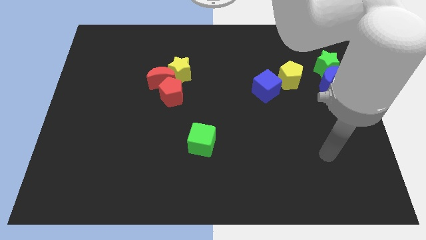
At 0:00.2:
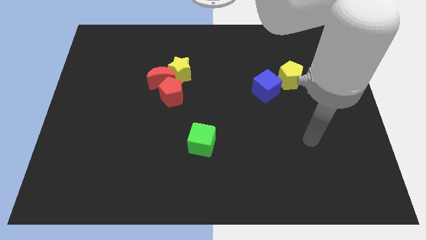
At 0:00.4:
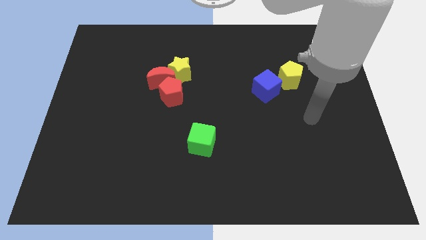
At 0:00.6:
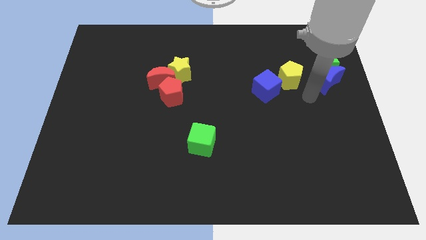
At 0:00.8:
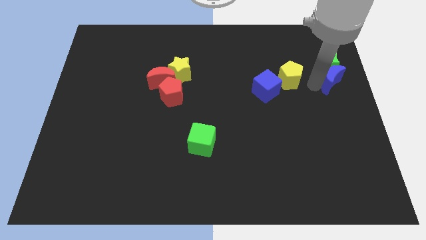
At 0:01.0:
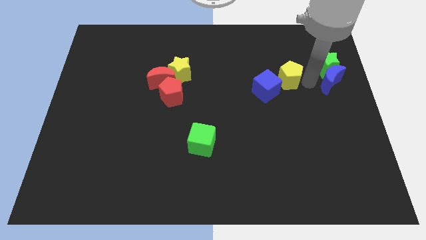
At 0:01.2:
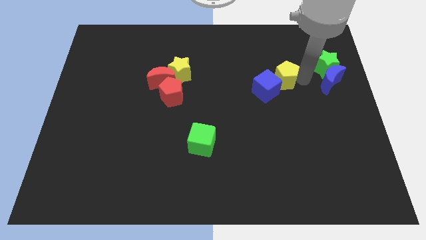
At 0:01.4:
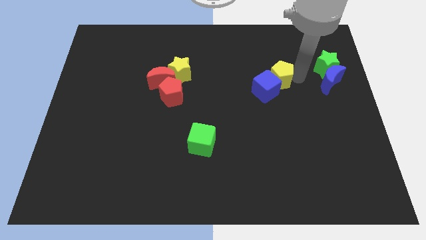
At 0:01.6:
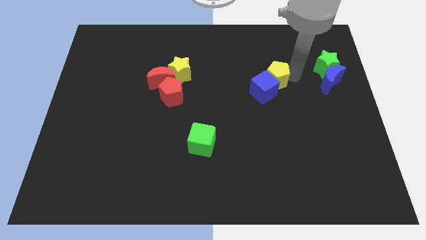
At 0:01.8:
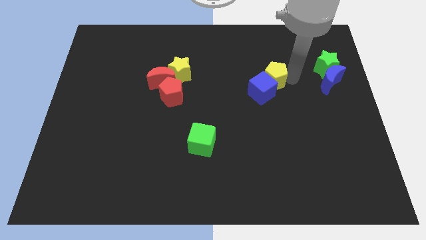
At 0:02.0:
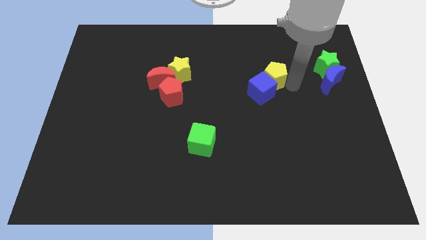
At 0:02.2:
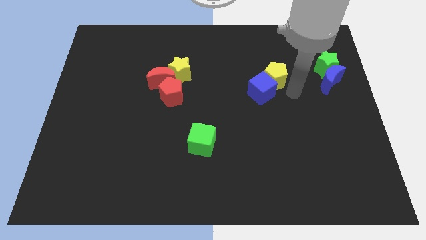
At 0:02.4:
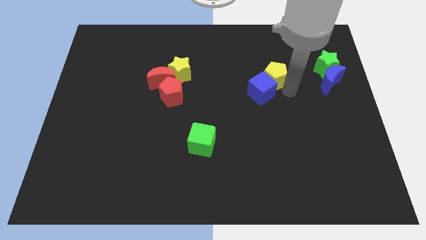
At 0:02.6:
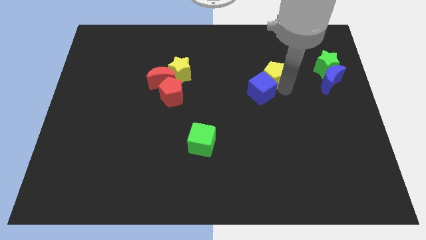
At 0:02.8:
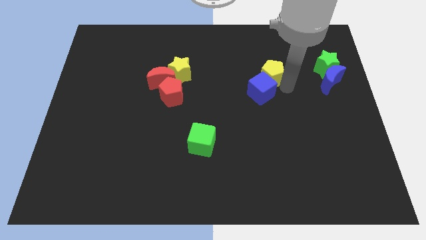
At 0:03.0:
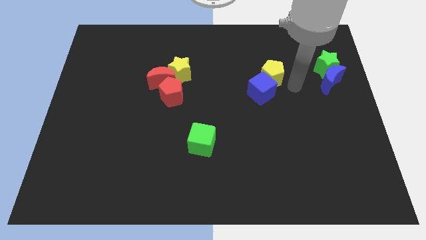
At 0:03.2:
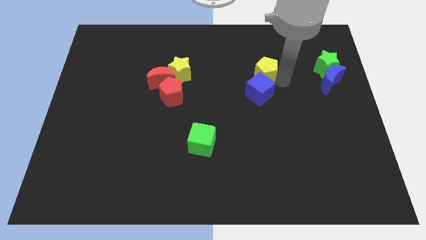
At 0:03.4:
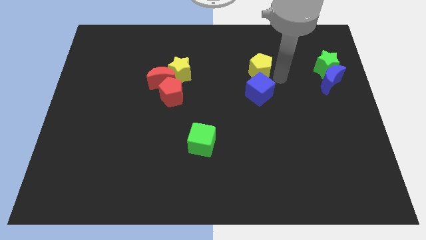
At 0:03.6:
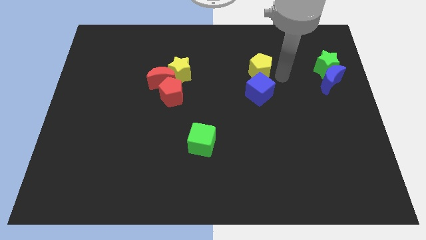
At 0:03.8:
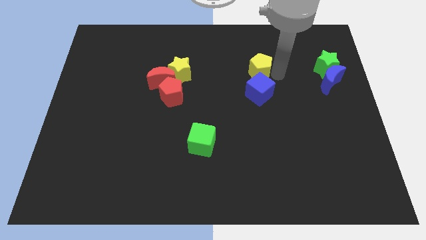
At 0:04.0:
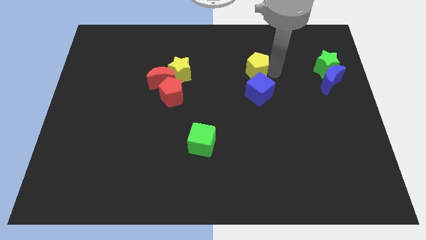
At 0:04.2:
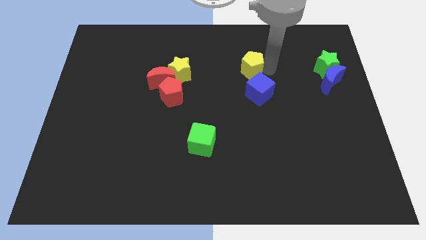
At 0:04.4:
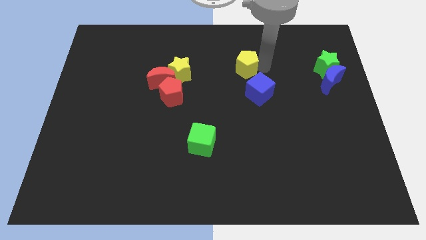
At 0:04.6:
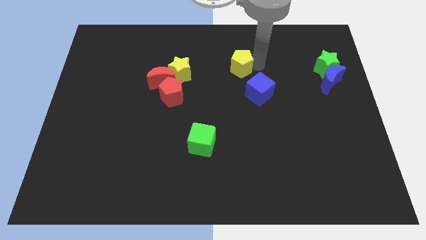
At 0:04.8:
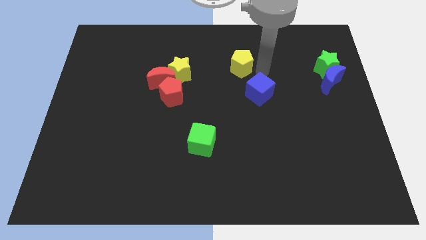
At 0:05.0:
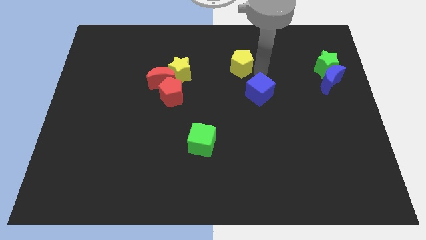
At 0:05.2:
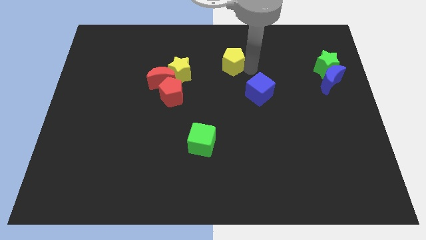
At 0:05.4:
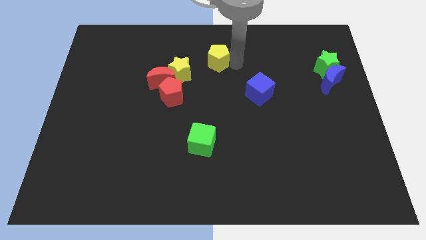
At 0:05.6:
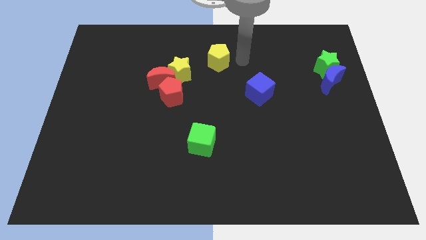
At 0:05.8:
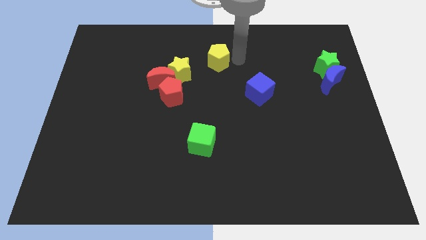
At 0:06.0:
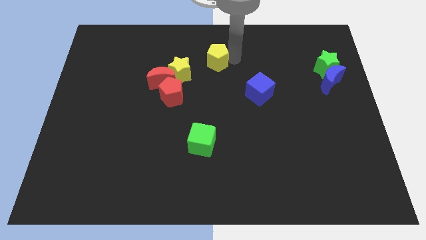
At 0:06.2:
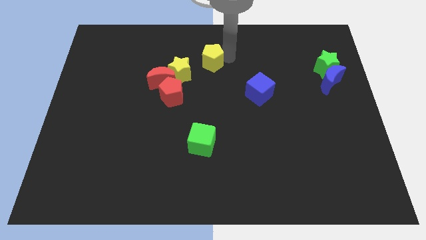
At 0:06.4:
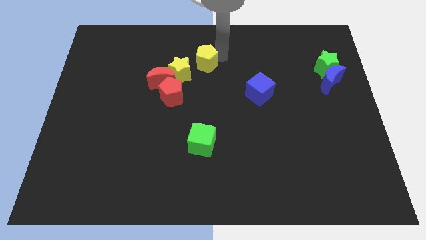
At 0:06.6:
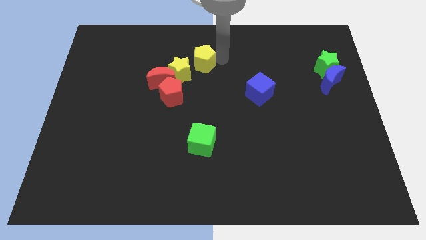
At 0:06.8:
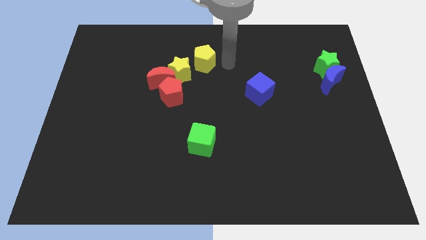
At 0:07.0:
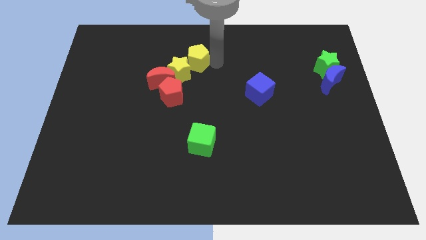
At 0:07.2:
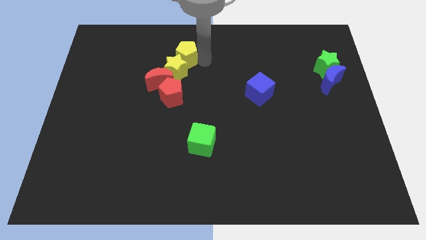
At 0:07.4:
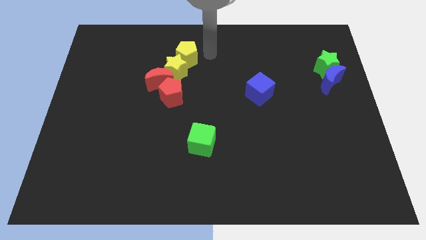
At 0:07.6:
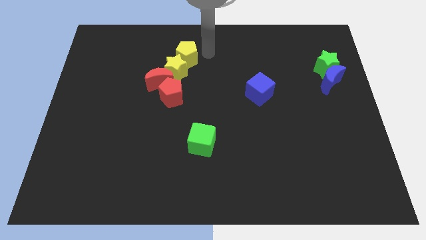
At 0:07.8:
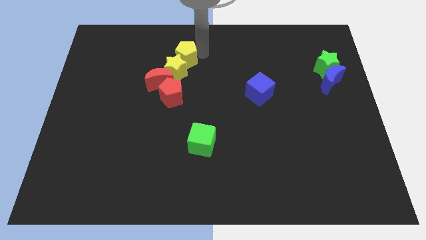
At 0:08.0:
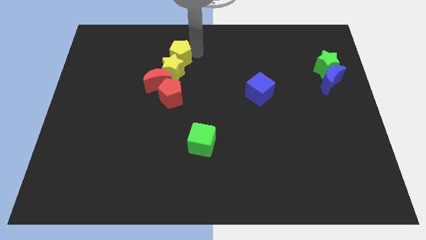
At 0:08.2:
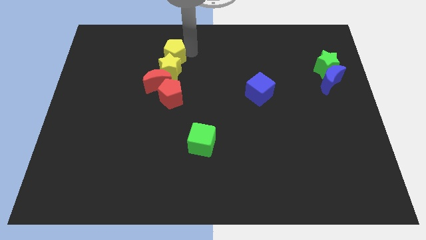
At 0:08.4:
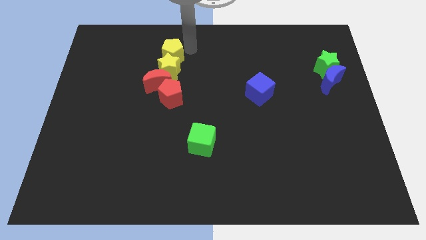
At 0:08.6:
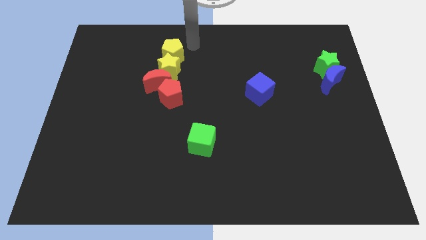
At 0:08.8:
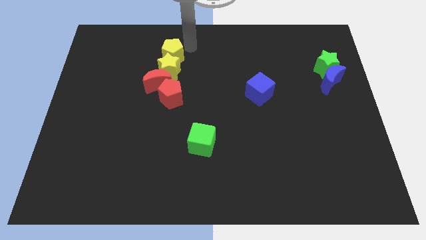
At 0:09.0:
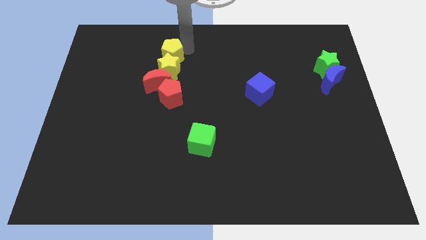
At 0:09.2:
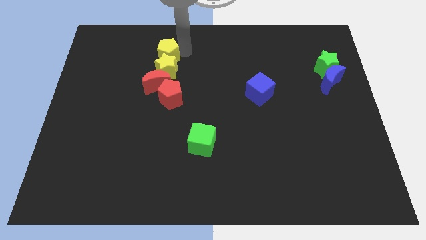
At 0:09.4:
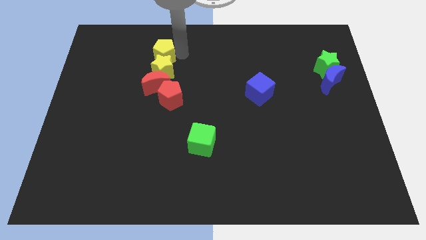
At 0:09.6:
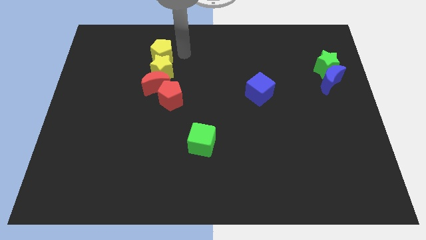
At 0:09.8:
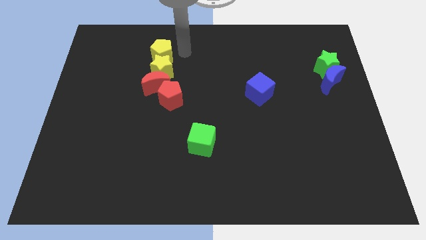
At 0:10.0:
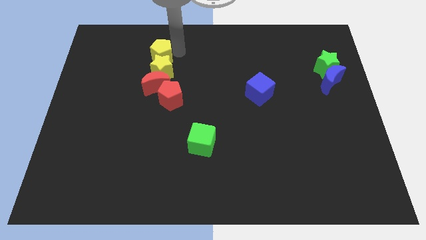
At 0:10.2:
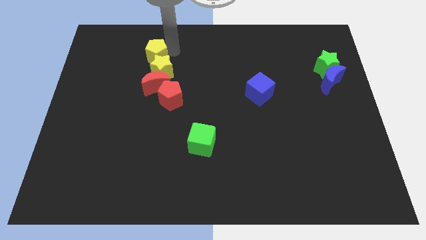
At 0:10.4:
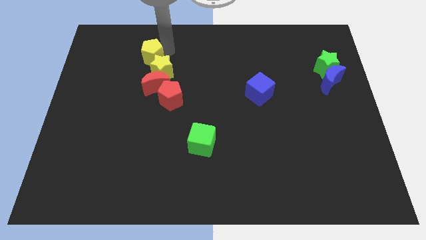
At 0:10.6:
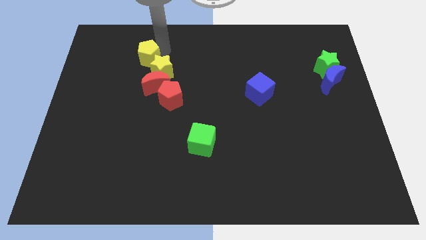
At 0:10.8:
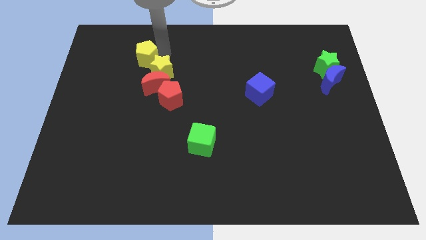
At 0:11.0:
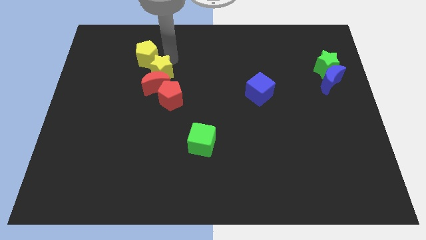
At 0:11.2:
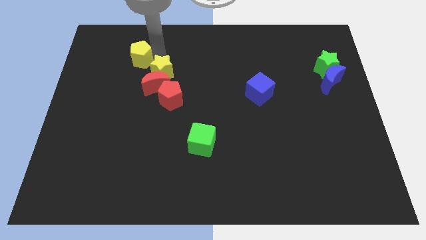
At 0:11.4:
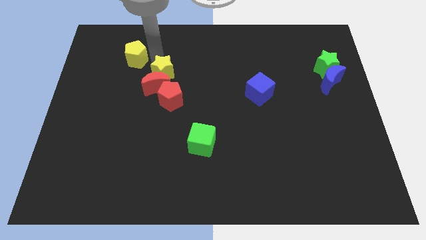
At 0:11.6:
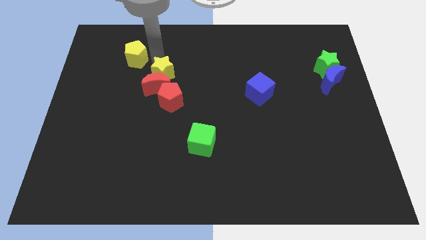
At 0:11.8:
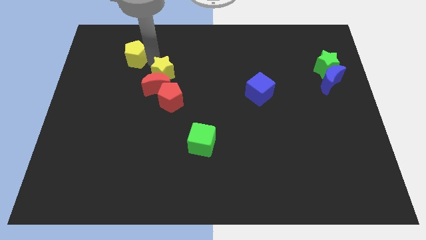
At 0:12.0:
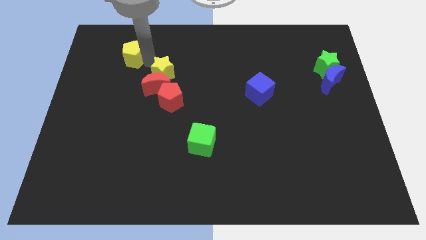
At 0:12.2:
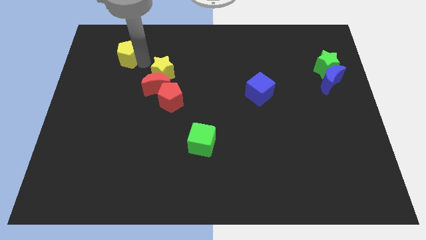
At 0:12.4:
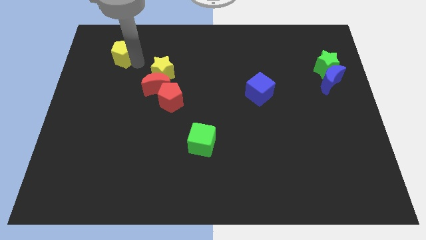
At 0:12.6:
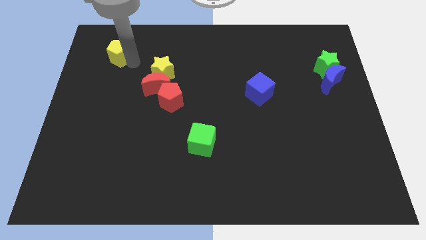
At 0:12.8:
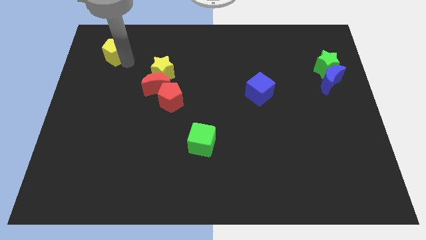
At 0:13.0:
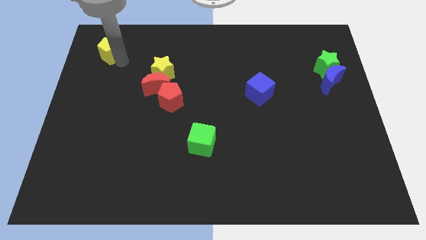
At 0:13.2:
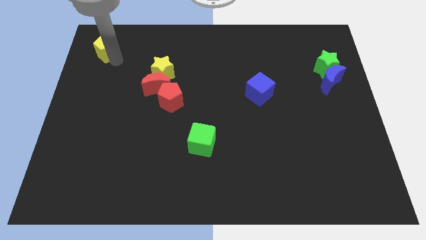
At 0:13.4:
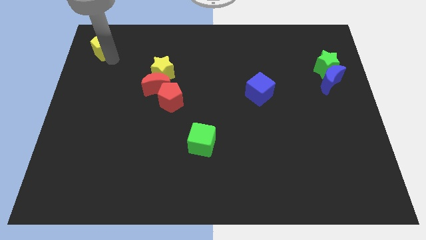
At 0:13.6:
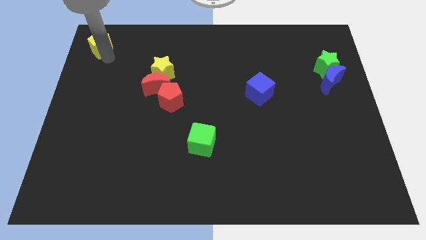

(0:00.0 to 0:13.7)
push the yellow pentagon to the upper left corner
